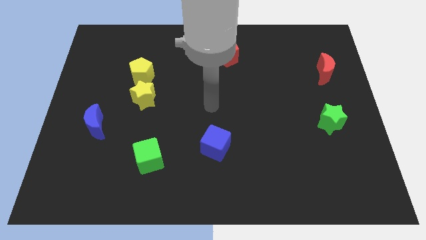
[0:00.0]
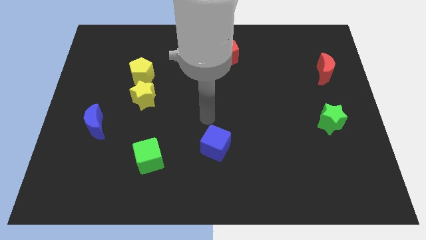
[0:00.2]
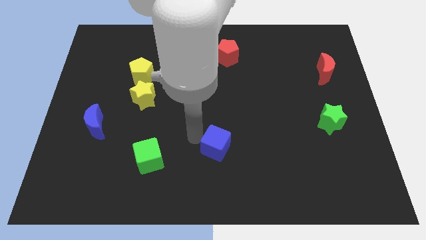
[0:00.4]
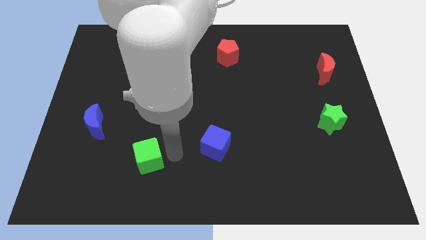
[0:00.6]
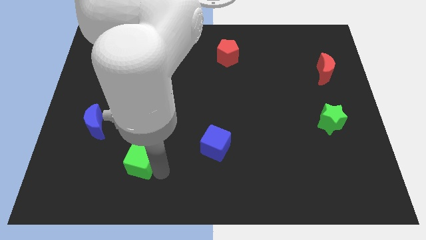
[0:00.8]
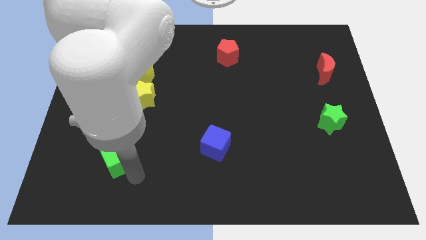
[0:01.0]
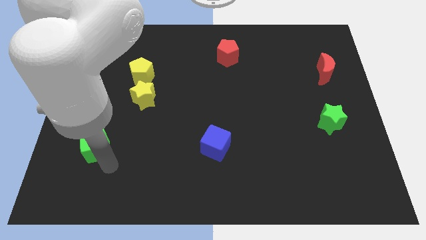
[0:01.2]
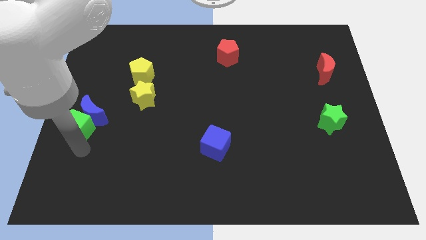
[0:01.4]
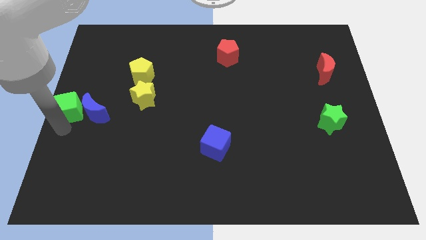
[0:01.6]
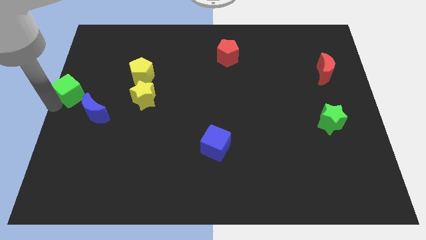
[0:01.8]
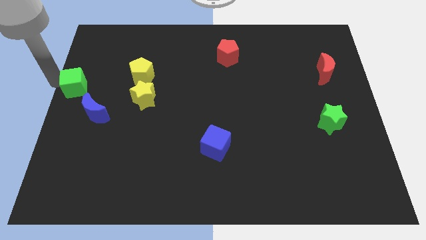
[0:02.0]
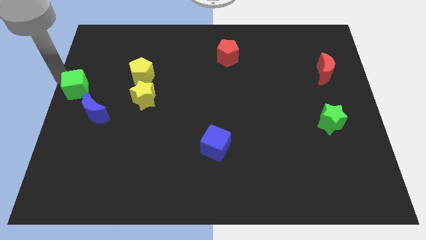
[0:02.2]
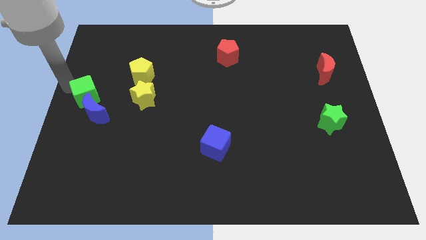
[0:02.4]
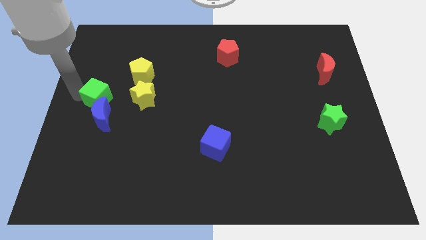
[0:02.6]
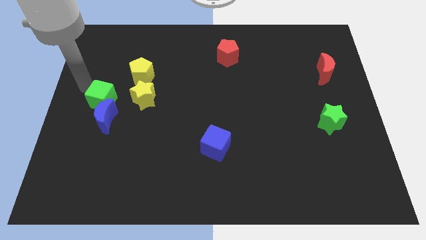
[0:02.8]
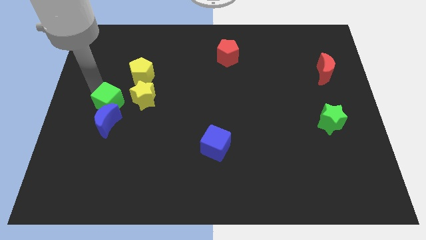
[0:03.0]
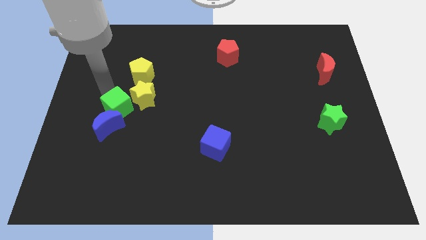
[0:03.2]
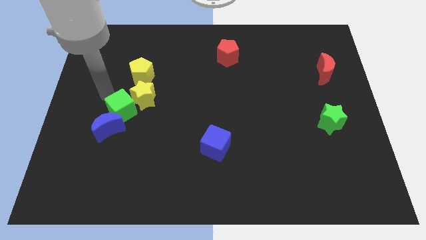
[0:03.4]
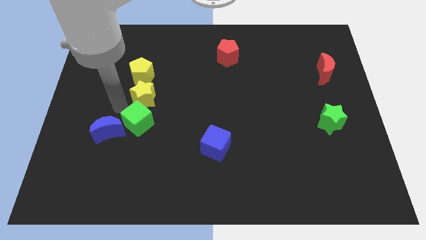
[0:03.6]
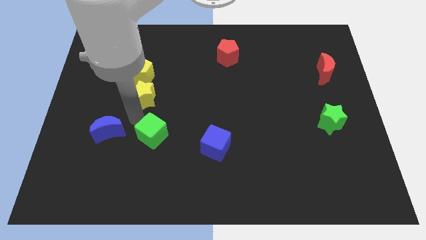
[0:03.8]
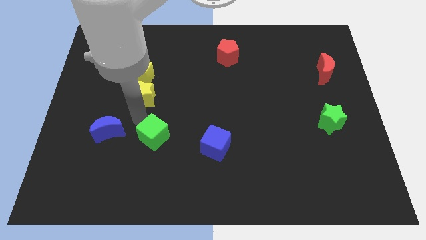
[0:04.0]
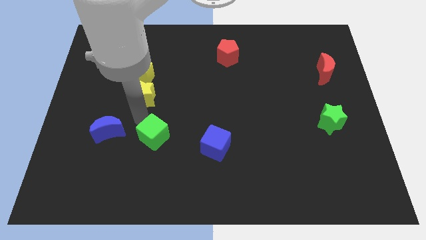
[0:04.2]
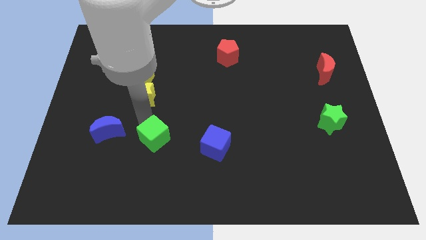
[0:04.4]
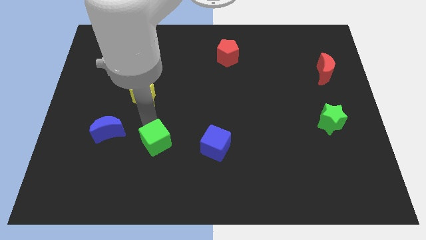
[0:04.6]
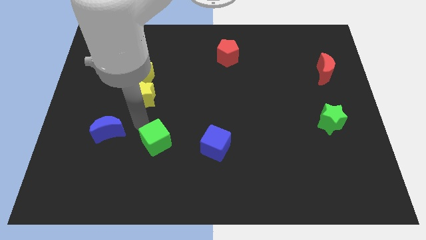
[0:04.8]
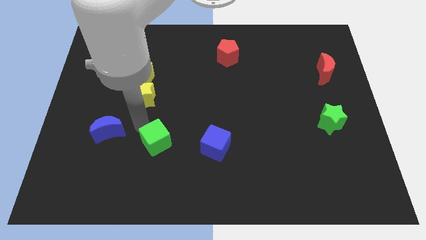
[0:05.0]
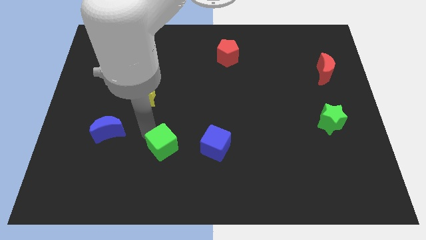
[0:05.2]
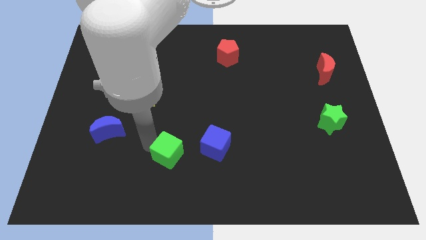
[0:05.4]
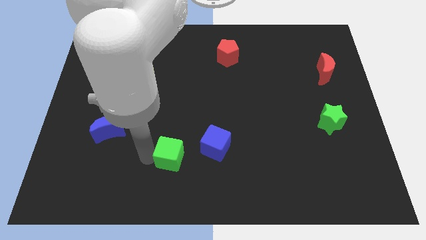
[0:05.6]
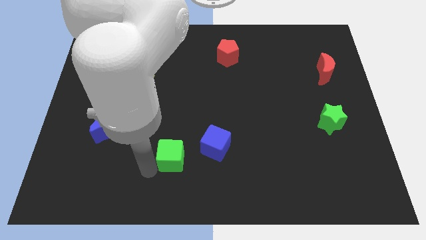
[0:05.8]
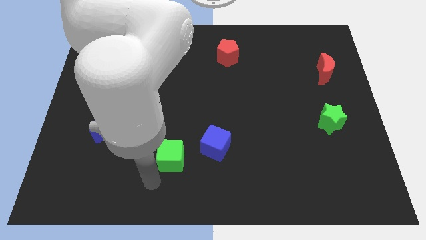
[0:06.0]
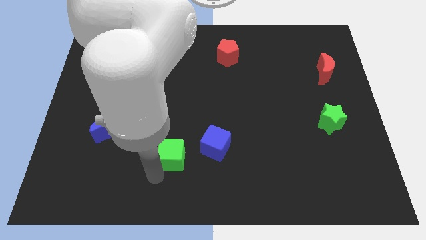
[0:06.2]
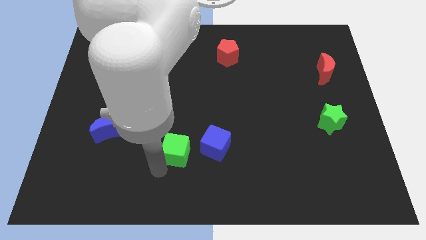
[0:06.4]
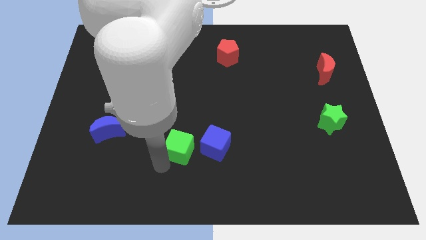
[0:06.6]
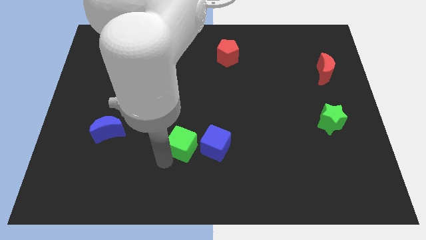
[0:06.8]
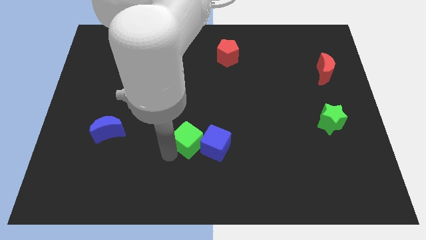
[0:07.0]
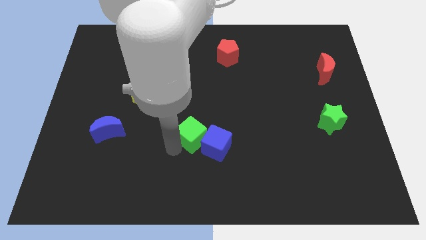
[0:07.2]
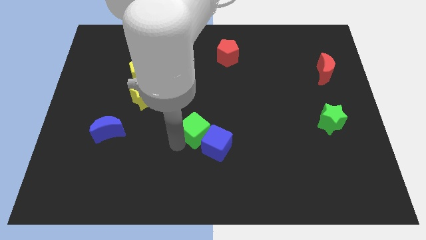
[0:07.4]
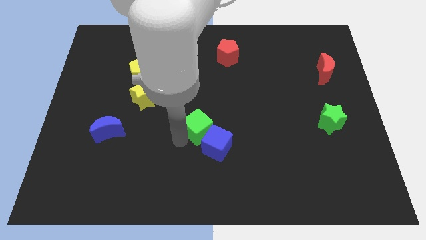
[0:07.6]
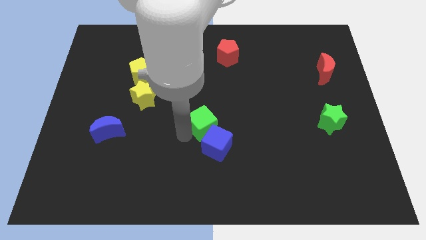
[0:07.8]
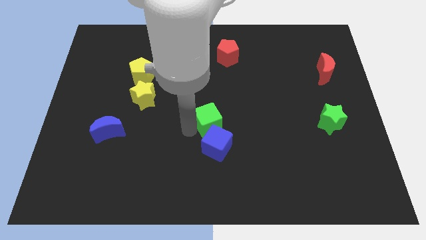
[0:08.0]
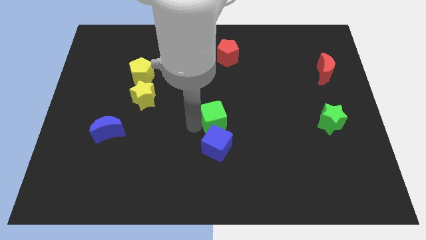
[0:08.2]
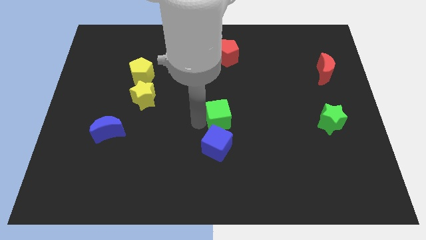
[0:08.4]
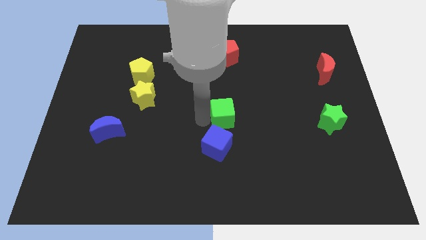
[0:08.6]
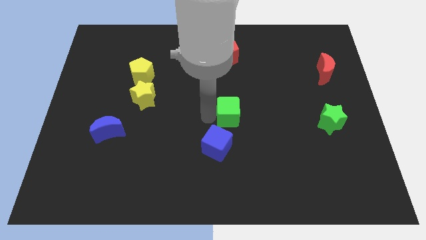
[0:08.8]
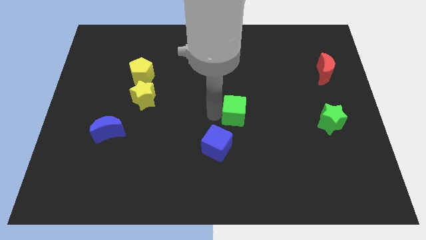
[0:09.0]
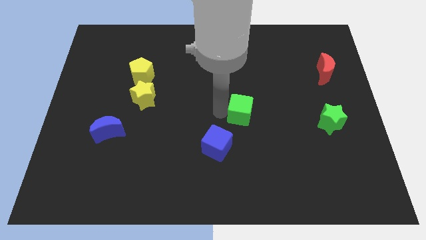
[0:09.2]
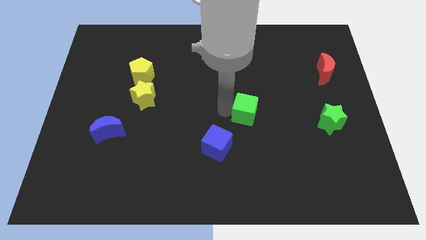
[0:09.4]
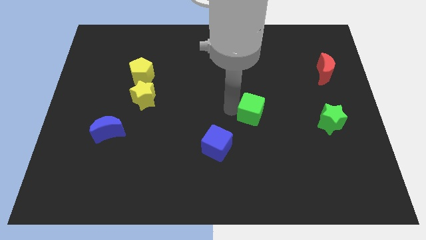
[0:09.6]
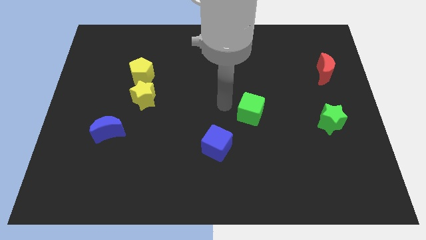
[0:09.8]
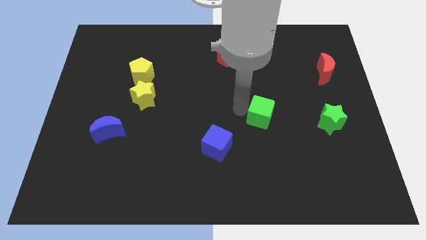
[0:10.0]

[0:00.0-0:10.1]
move the green cube just left of the green star

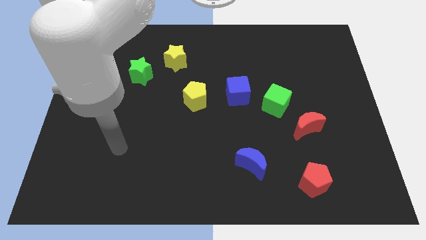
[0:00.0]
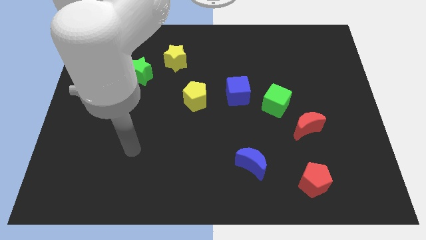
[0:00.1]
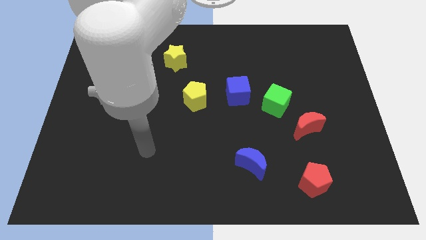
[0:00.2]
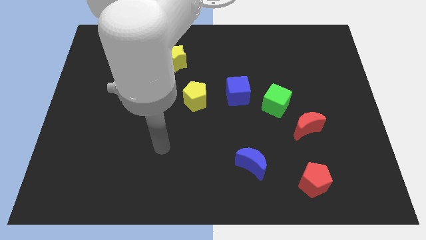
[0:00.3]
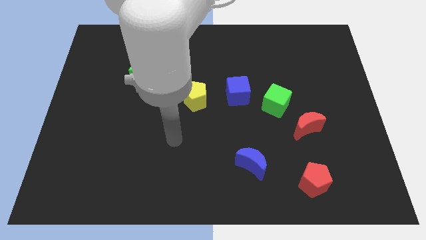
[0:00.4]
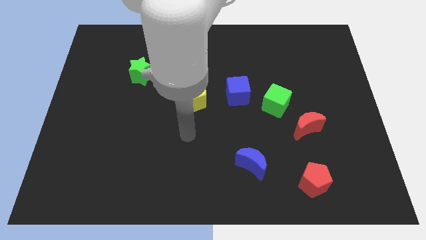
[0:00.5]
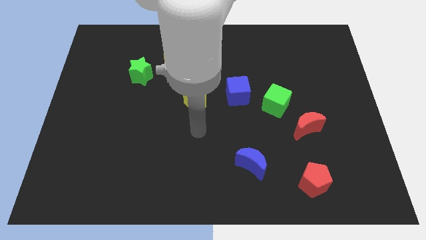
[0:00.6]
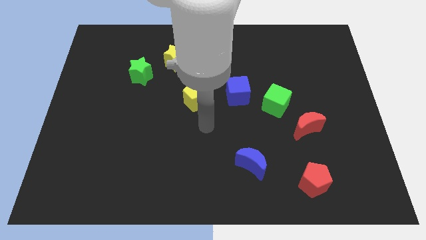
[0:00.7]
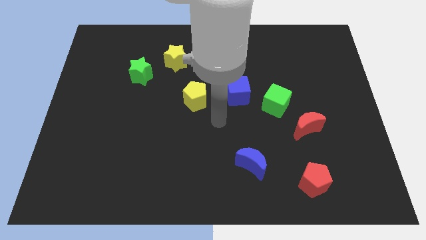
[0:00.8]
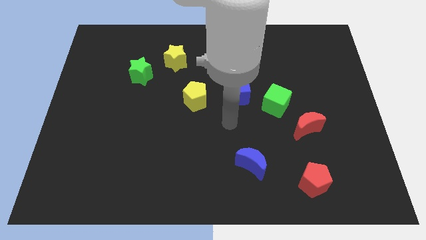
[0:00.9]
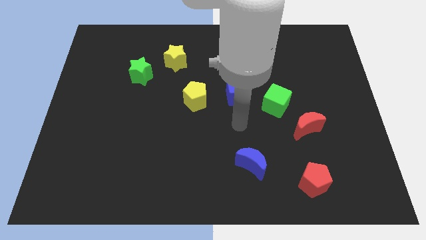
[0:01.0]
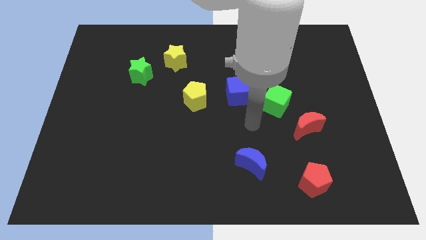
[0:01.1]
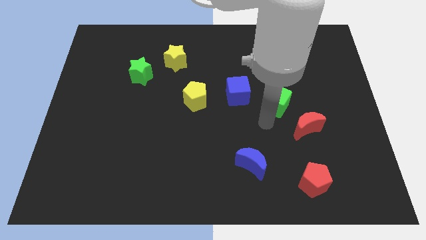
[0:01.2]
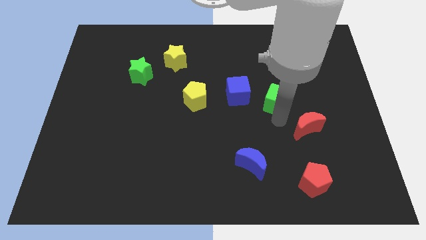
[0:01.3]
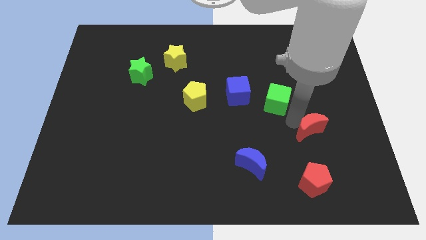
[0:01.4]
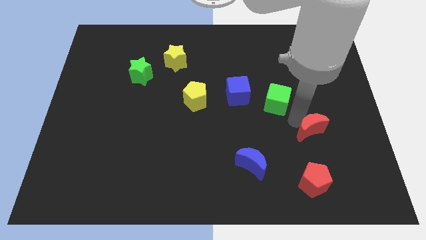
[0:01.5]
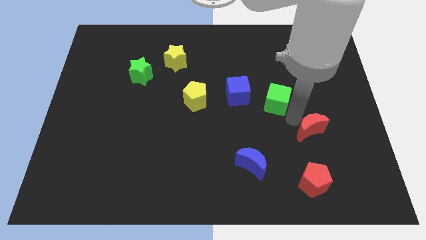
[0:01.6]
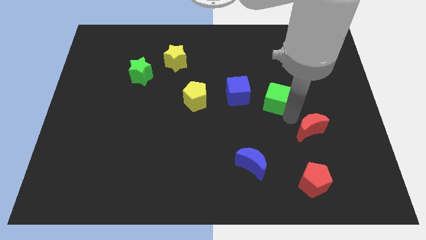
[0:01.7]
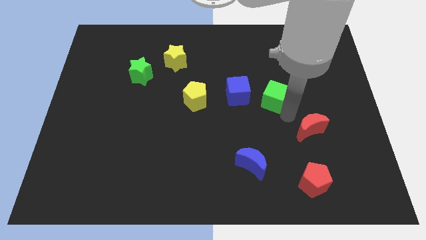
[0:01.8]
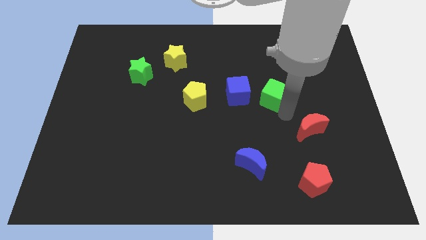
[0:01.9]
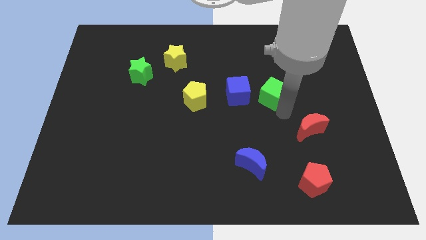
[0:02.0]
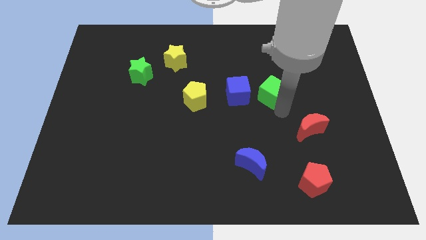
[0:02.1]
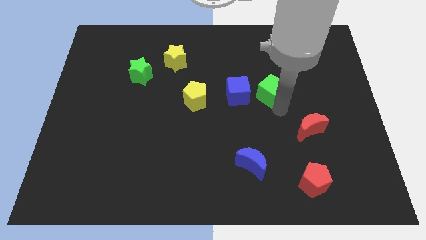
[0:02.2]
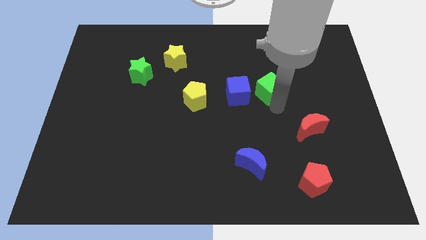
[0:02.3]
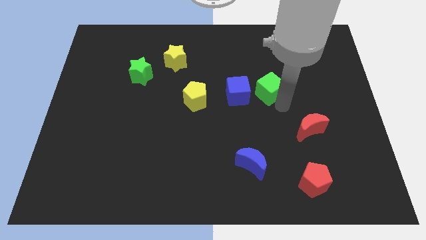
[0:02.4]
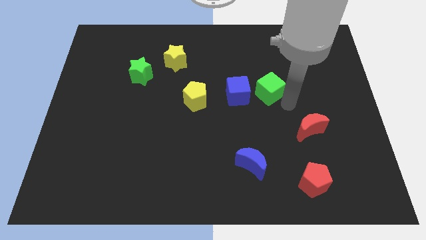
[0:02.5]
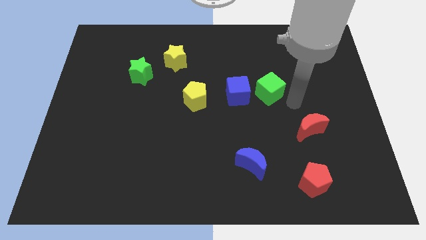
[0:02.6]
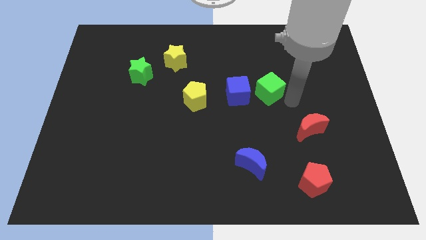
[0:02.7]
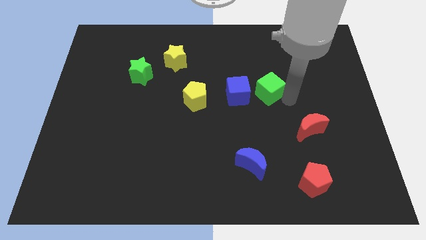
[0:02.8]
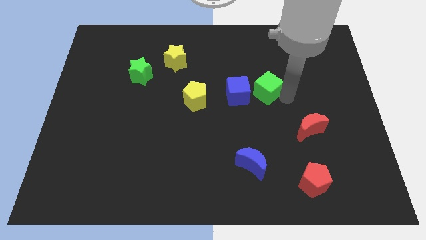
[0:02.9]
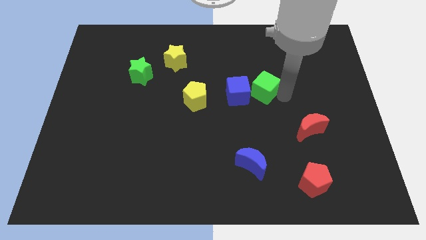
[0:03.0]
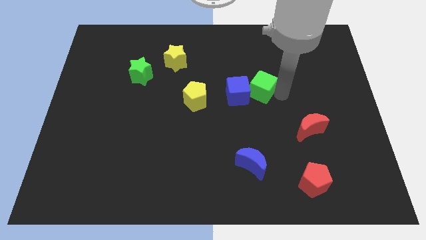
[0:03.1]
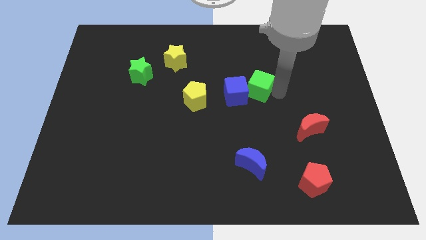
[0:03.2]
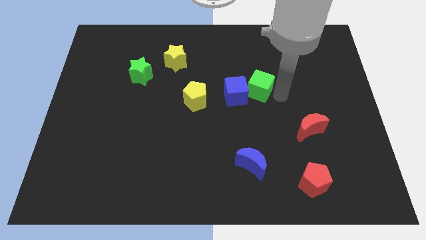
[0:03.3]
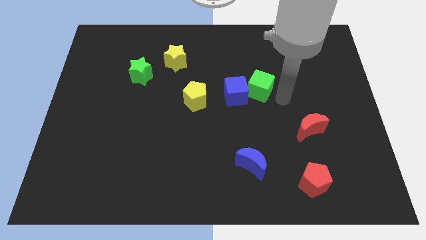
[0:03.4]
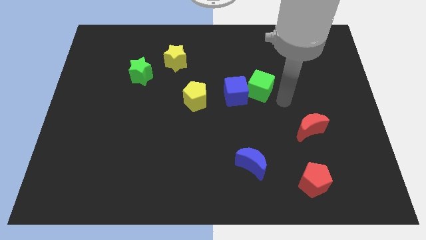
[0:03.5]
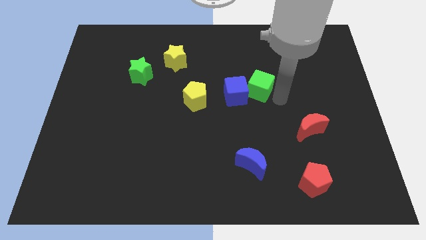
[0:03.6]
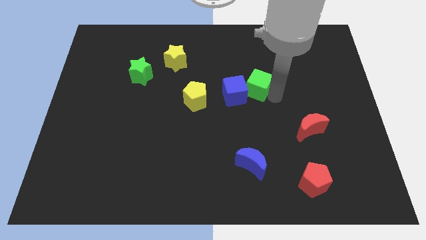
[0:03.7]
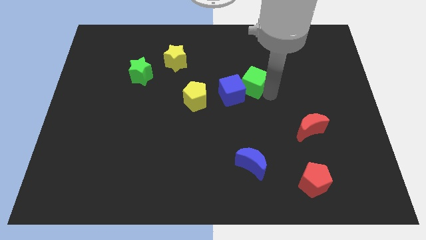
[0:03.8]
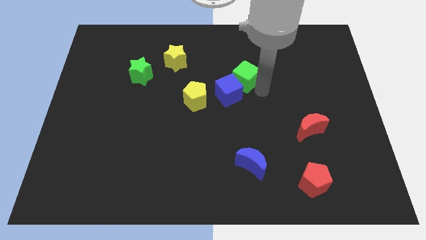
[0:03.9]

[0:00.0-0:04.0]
put the green cube to the top side of the blue cube
